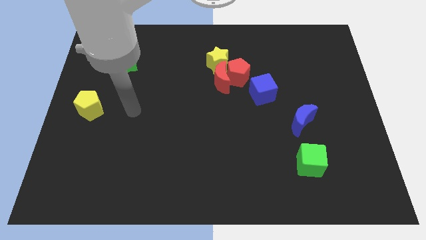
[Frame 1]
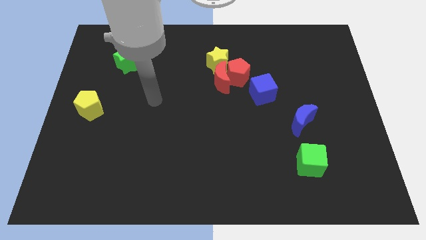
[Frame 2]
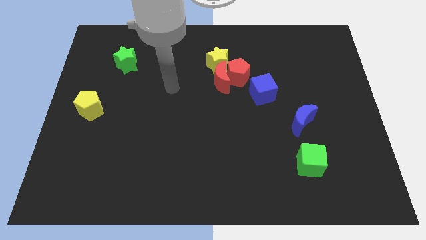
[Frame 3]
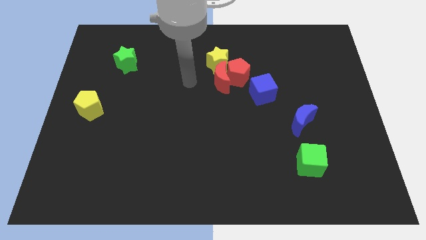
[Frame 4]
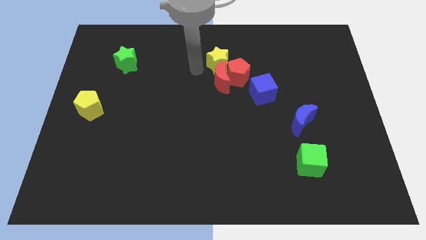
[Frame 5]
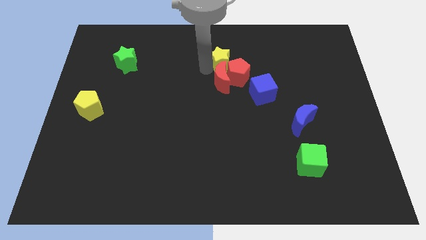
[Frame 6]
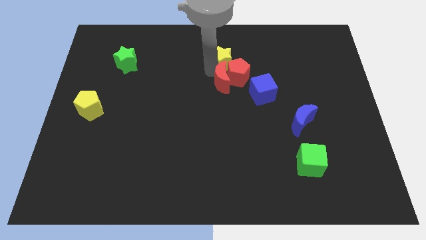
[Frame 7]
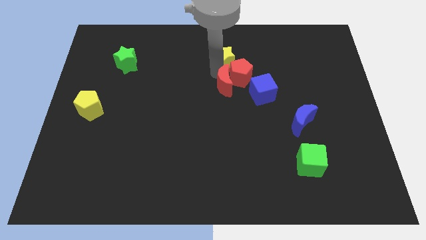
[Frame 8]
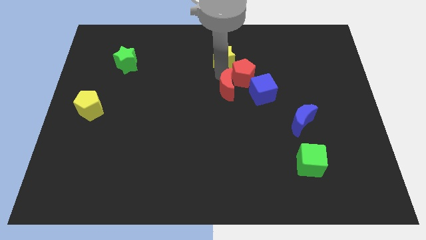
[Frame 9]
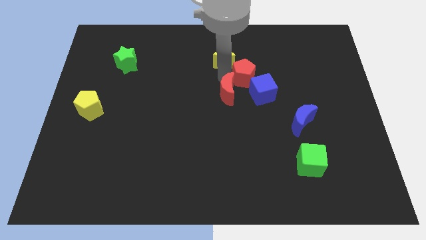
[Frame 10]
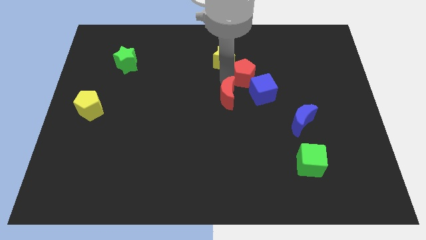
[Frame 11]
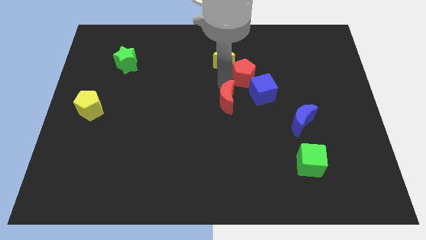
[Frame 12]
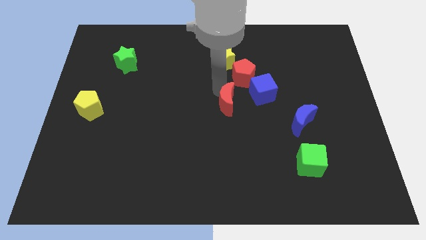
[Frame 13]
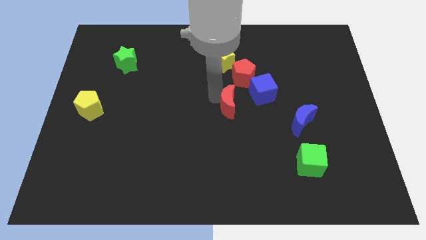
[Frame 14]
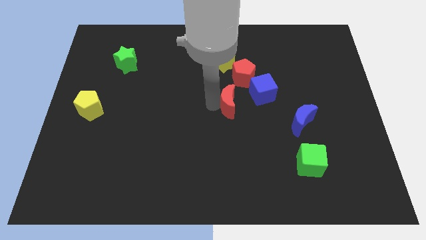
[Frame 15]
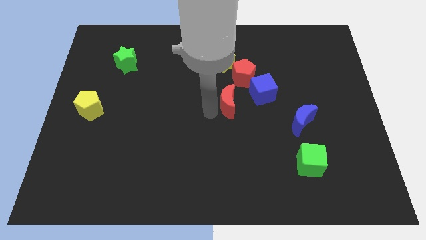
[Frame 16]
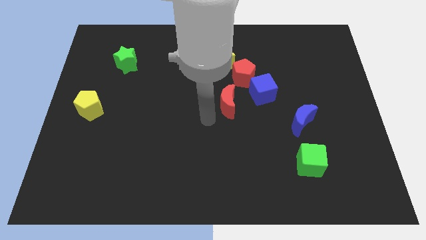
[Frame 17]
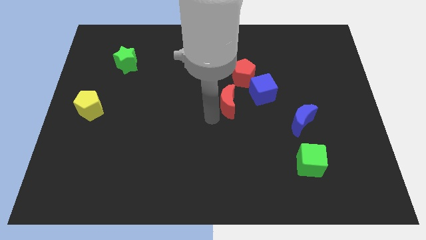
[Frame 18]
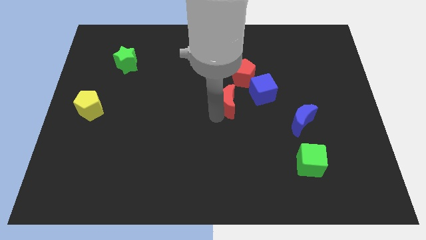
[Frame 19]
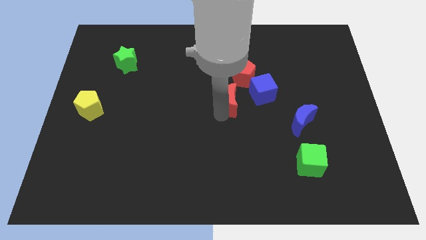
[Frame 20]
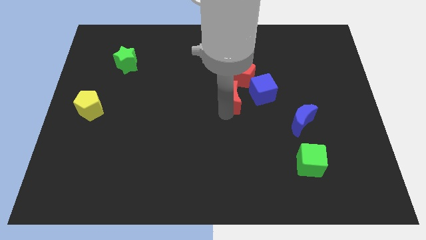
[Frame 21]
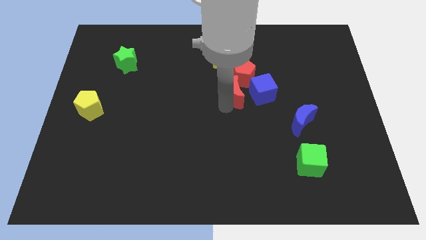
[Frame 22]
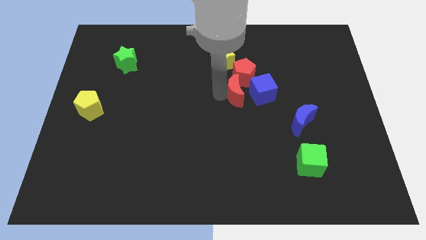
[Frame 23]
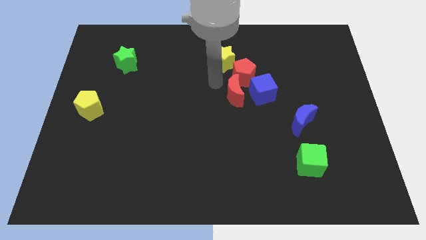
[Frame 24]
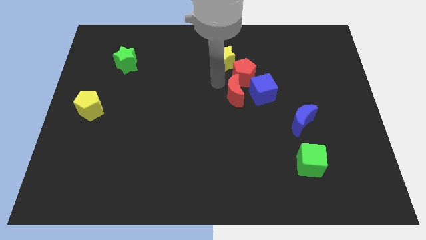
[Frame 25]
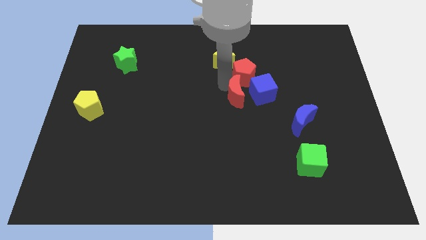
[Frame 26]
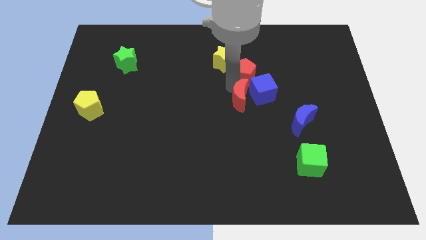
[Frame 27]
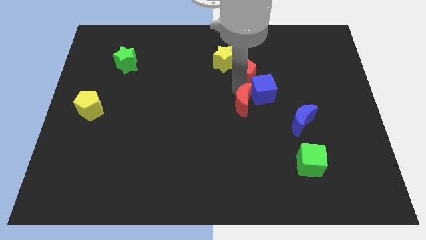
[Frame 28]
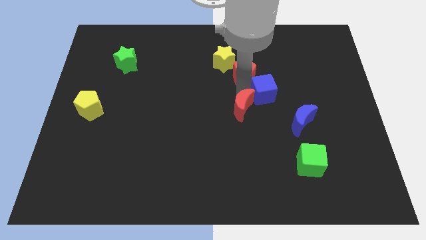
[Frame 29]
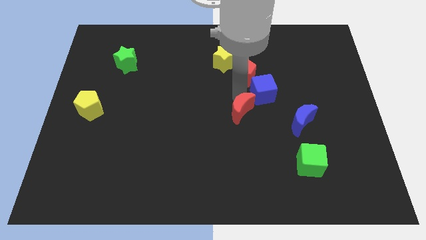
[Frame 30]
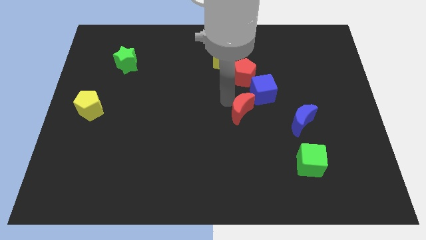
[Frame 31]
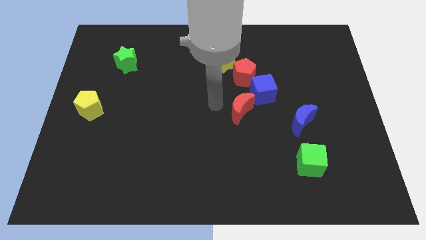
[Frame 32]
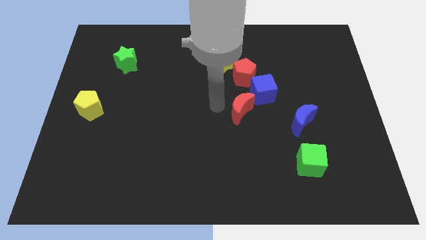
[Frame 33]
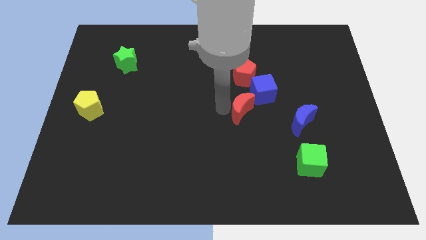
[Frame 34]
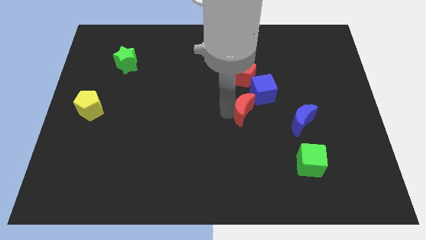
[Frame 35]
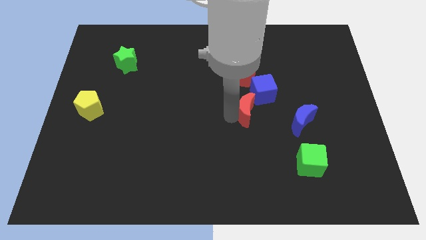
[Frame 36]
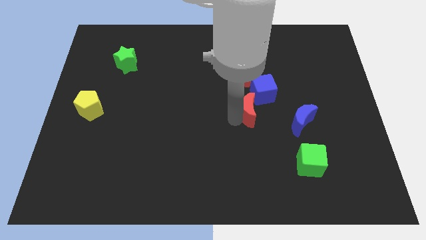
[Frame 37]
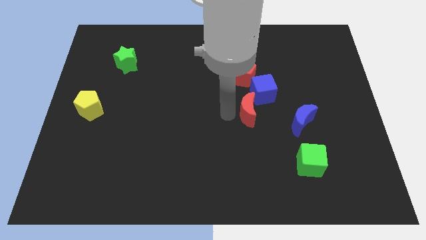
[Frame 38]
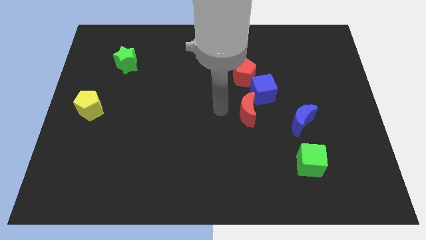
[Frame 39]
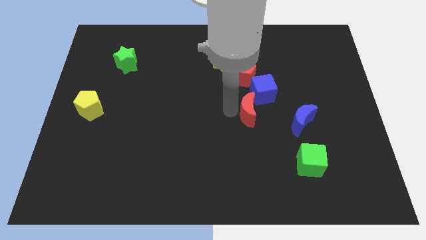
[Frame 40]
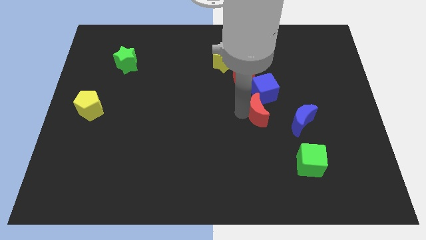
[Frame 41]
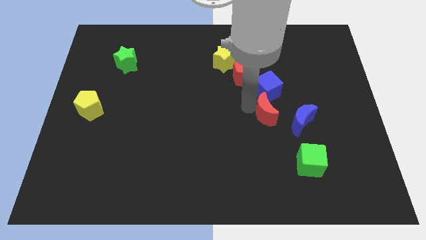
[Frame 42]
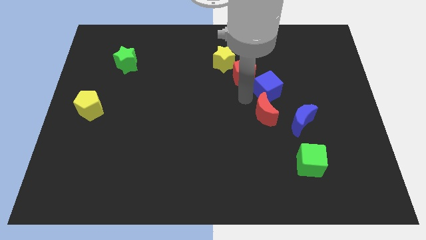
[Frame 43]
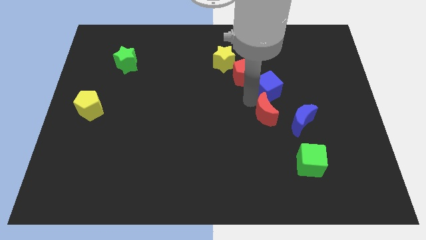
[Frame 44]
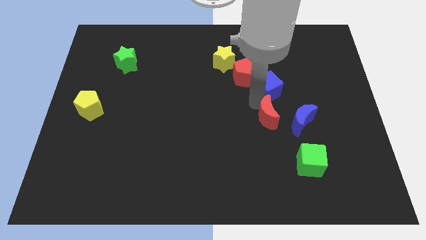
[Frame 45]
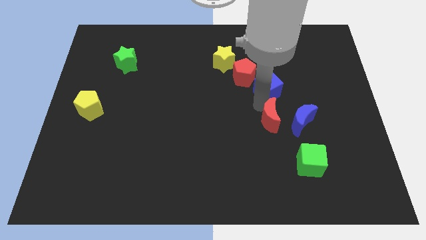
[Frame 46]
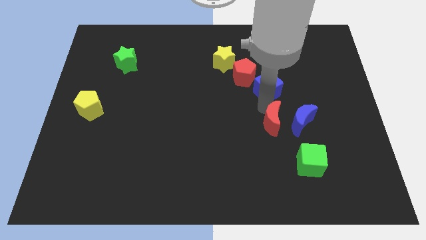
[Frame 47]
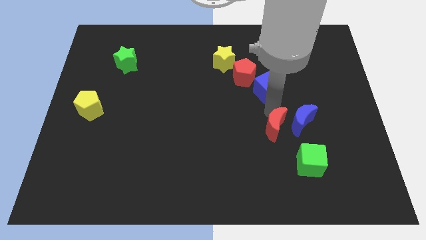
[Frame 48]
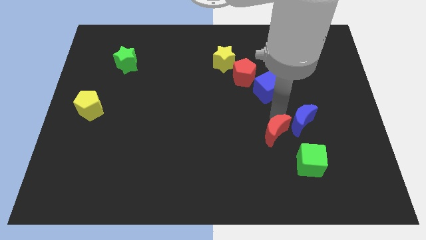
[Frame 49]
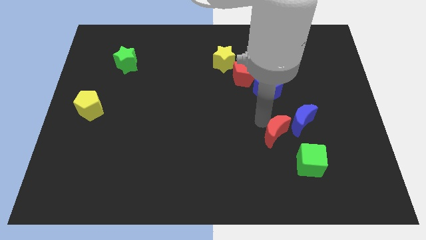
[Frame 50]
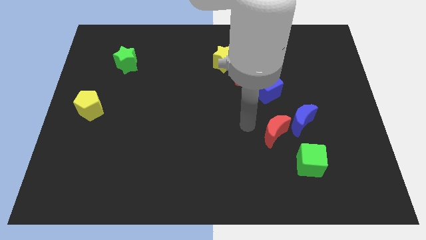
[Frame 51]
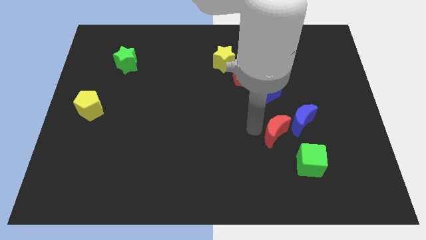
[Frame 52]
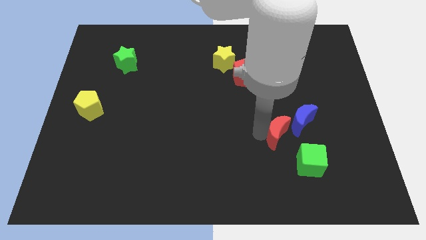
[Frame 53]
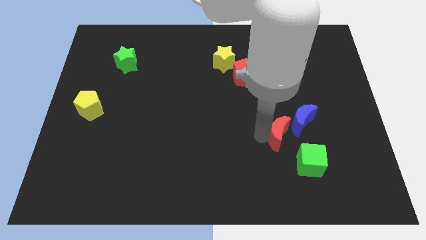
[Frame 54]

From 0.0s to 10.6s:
slide the red moon downwards and right

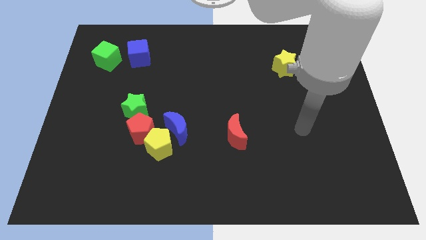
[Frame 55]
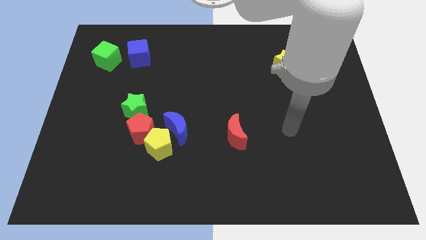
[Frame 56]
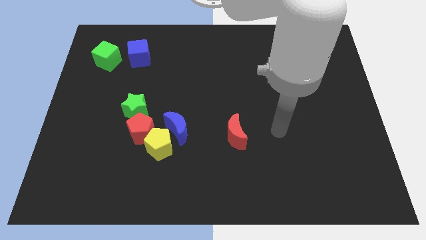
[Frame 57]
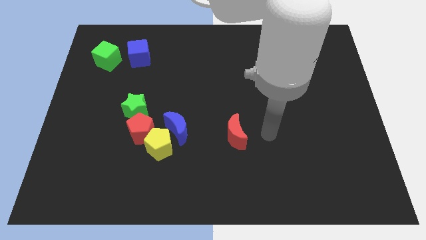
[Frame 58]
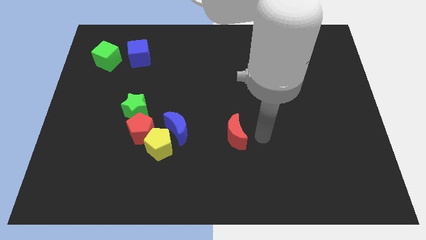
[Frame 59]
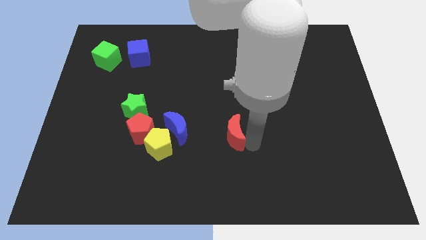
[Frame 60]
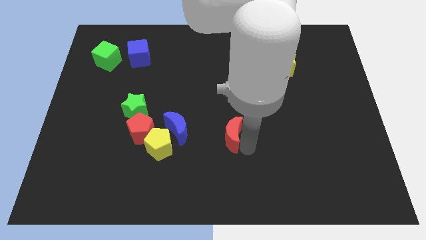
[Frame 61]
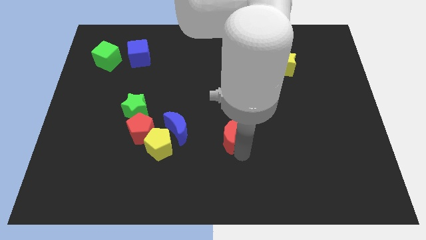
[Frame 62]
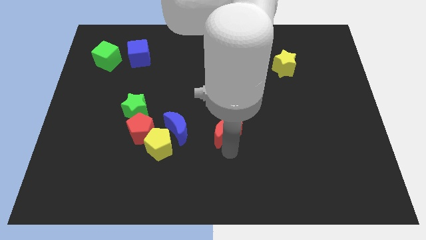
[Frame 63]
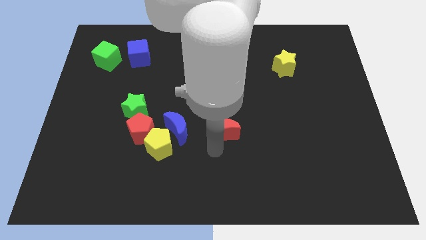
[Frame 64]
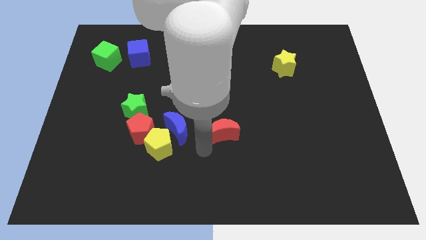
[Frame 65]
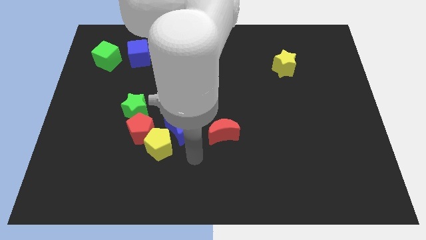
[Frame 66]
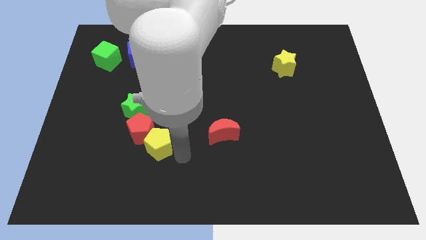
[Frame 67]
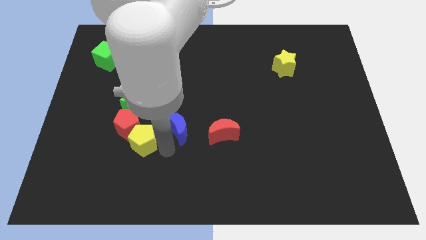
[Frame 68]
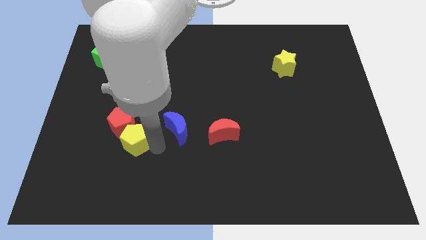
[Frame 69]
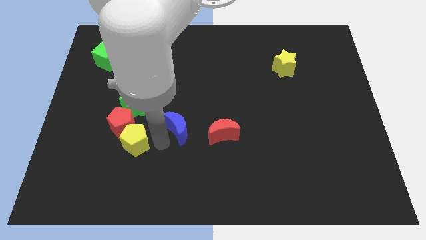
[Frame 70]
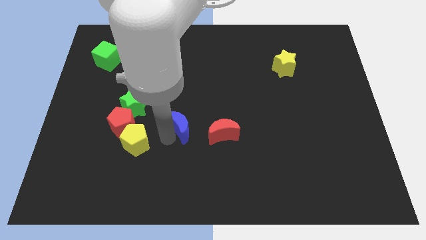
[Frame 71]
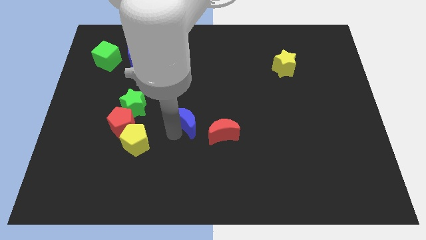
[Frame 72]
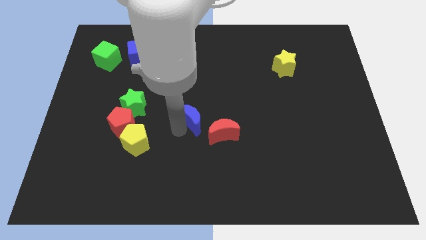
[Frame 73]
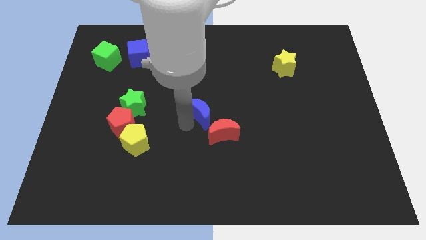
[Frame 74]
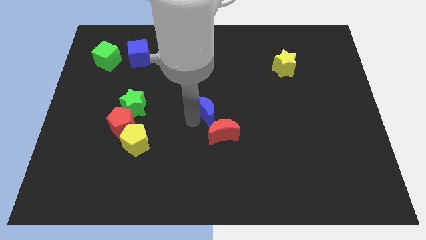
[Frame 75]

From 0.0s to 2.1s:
slightly move the blue moon diagonally up and to the right

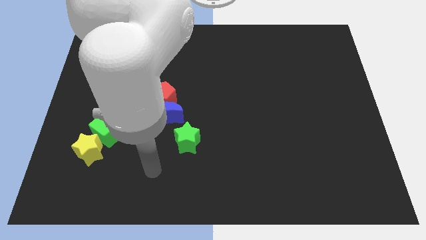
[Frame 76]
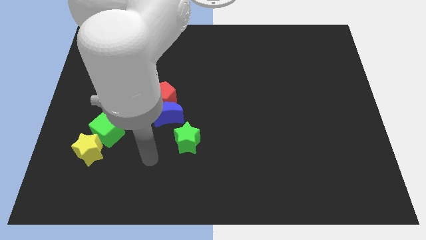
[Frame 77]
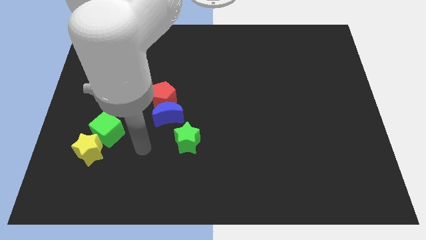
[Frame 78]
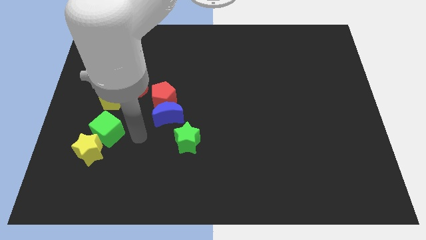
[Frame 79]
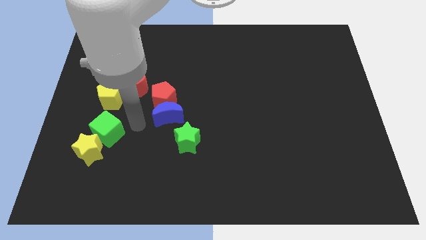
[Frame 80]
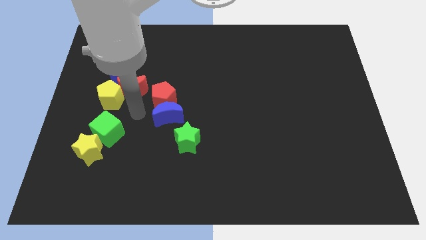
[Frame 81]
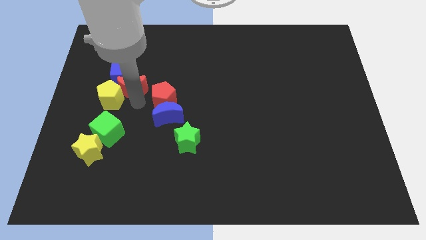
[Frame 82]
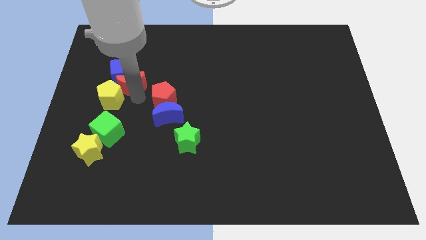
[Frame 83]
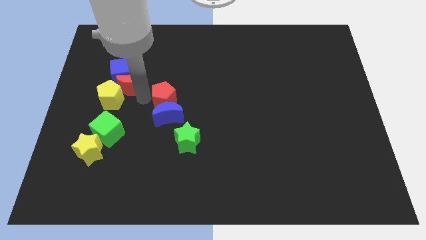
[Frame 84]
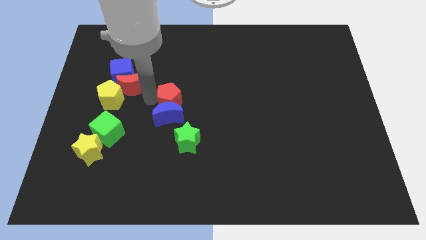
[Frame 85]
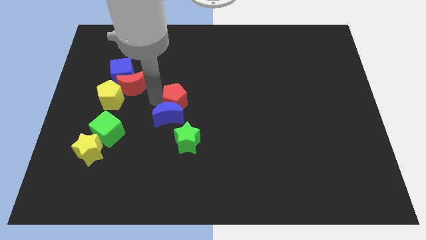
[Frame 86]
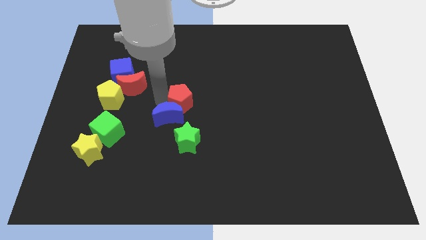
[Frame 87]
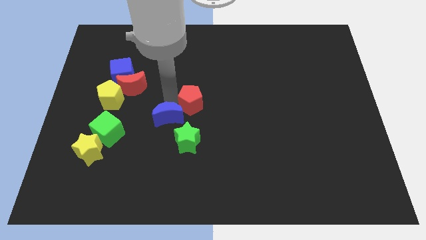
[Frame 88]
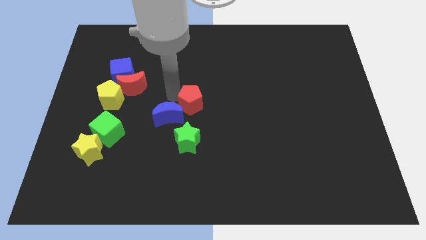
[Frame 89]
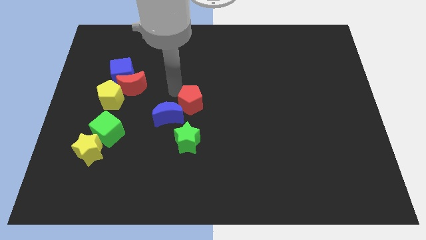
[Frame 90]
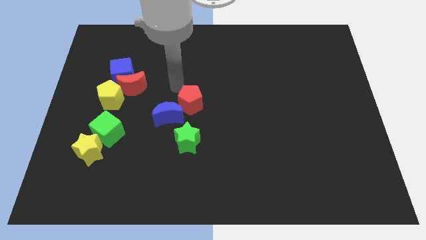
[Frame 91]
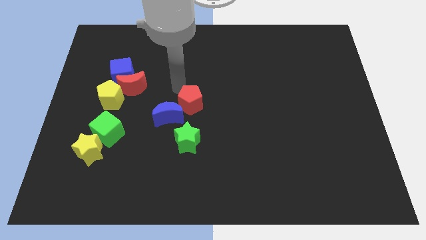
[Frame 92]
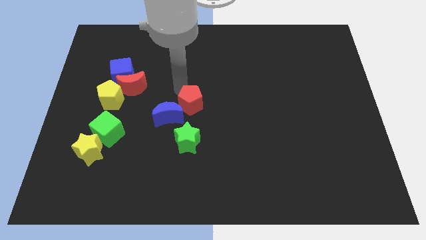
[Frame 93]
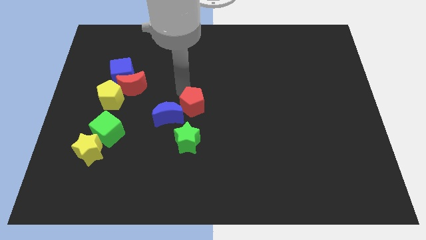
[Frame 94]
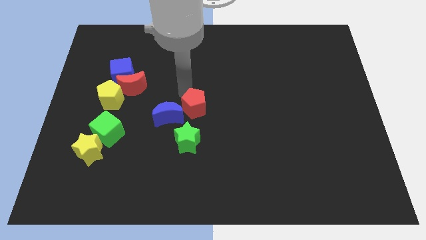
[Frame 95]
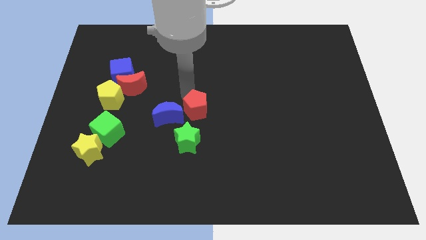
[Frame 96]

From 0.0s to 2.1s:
push the red pentagon diagonally downwards and right slightly
